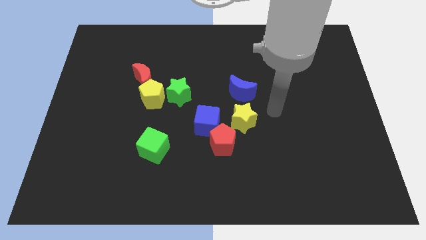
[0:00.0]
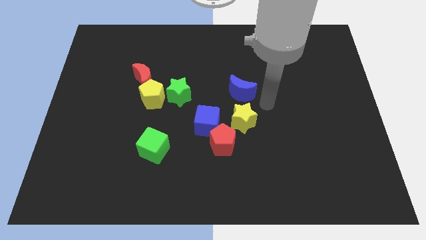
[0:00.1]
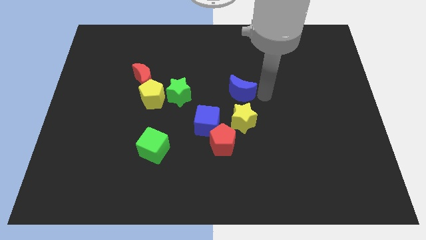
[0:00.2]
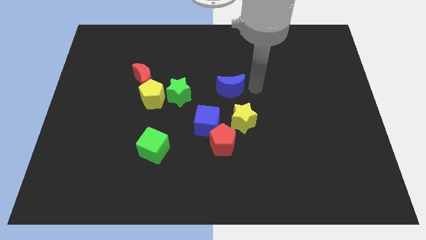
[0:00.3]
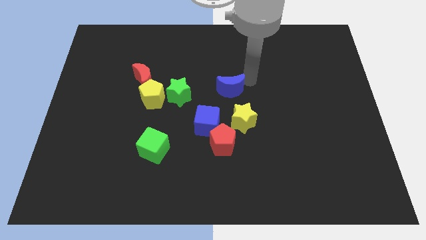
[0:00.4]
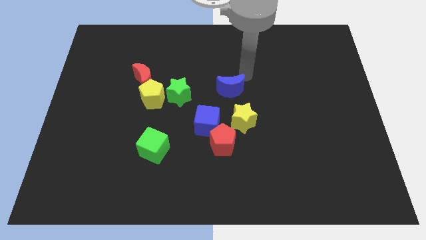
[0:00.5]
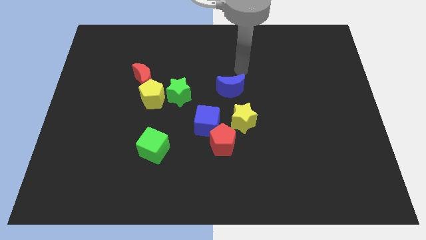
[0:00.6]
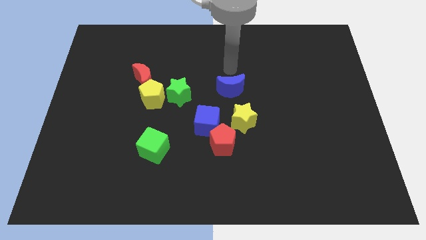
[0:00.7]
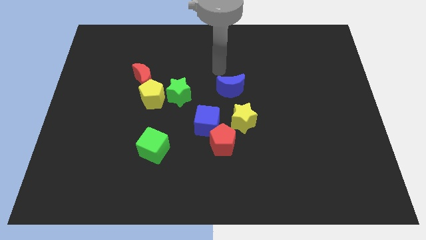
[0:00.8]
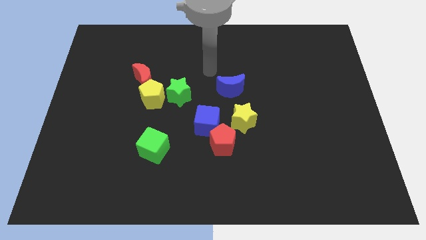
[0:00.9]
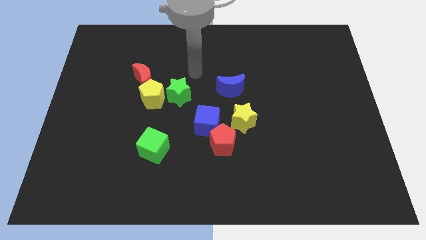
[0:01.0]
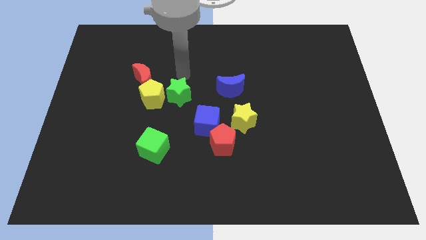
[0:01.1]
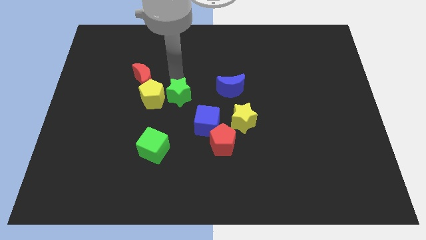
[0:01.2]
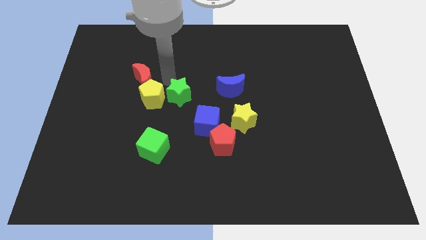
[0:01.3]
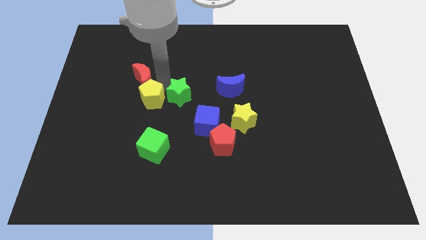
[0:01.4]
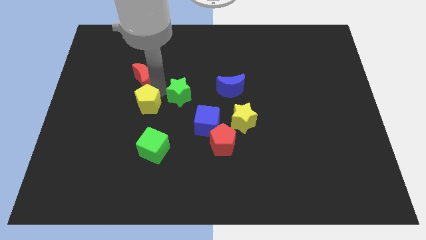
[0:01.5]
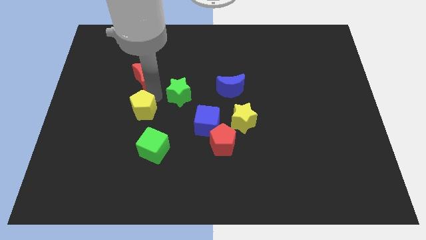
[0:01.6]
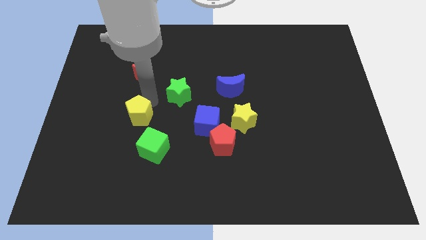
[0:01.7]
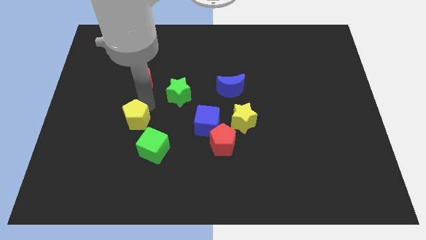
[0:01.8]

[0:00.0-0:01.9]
separate the yellow pentagon from the red moon and green star

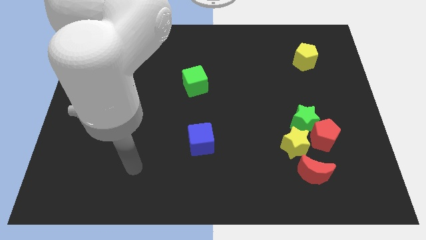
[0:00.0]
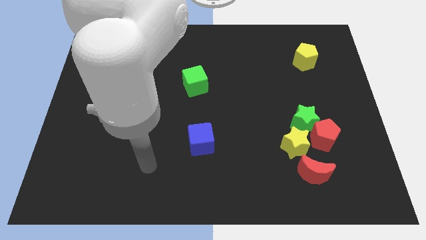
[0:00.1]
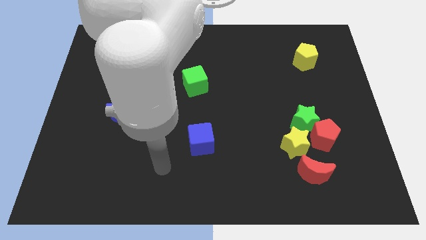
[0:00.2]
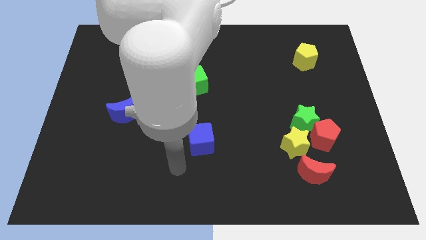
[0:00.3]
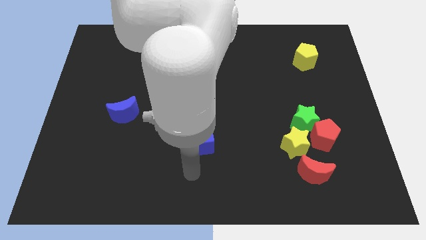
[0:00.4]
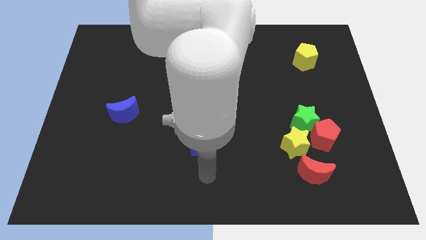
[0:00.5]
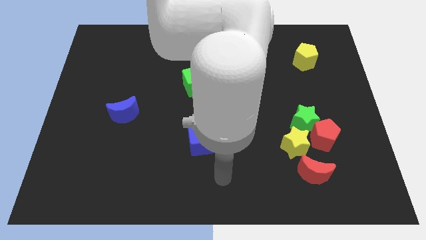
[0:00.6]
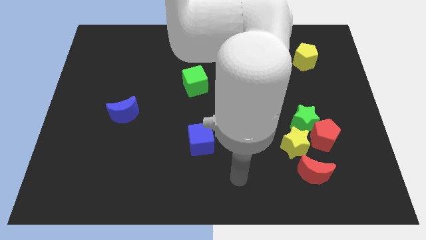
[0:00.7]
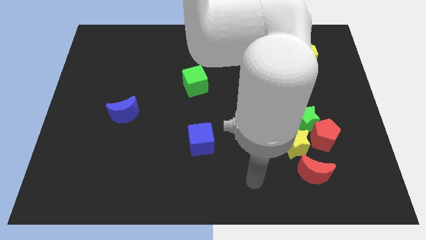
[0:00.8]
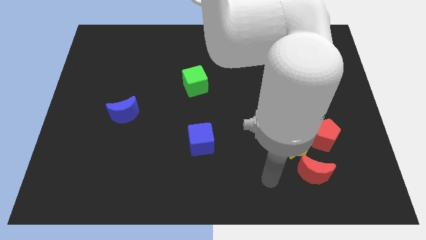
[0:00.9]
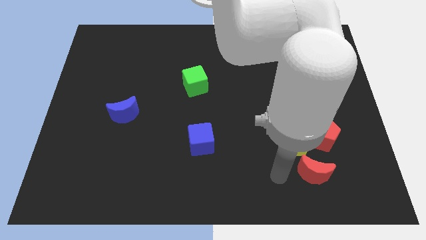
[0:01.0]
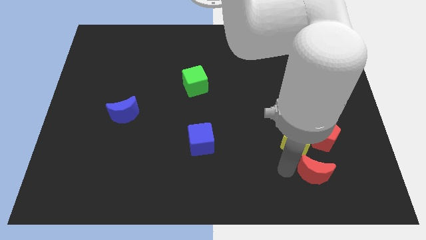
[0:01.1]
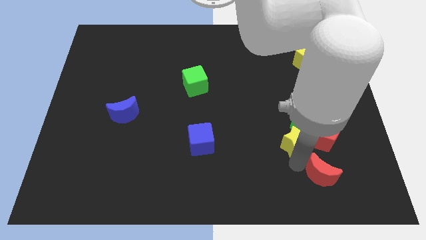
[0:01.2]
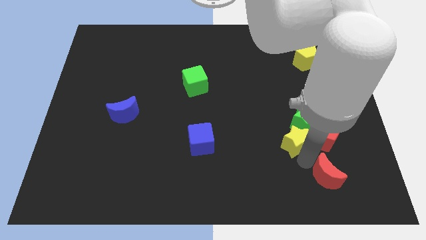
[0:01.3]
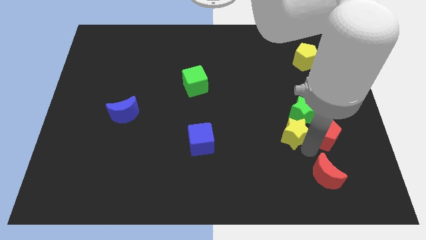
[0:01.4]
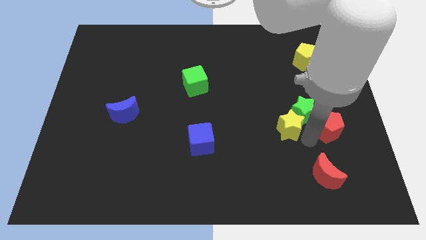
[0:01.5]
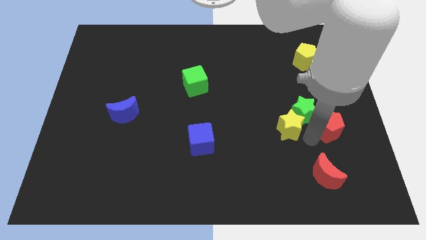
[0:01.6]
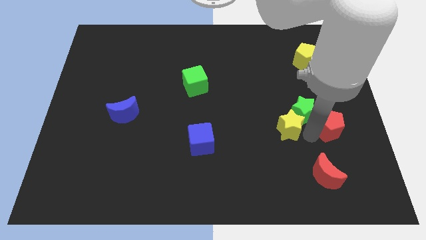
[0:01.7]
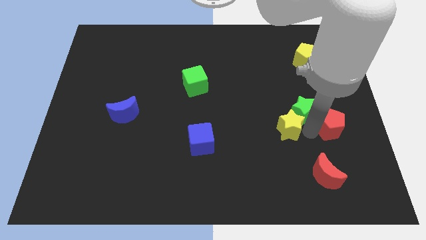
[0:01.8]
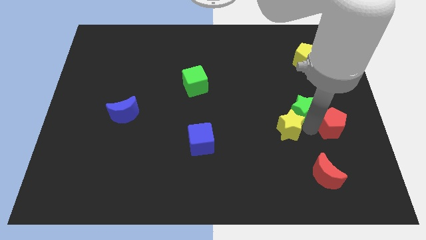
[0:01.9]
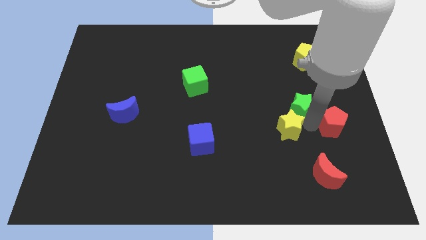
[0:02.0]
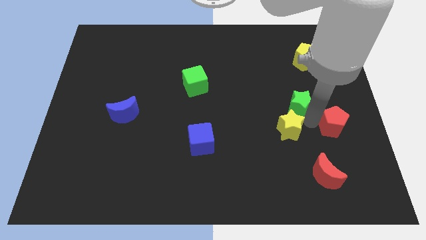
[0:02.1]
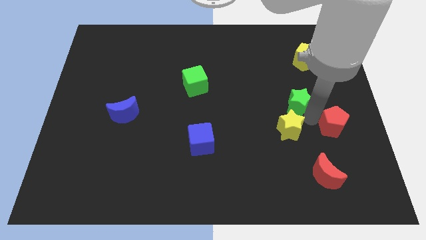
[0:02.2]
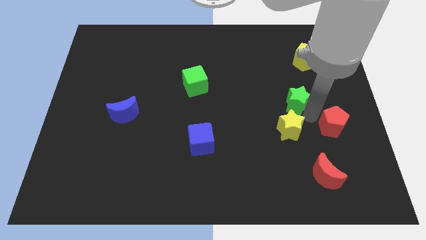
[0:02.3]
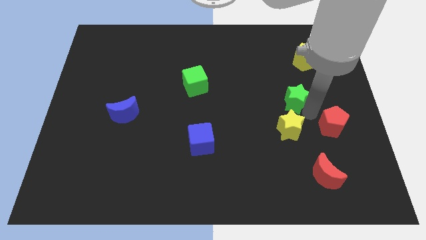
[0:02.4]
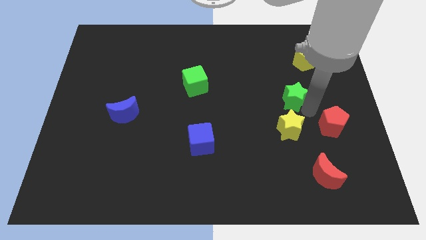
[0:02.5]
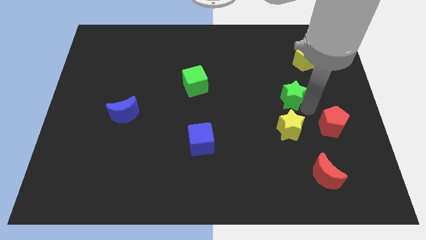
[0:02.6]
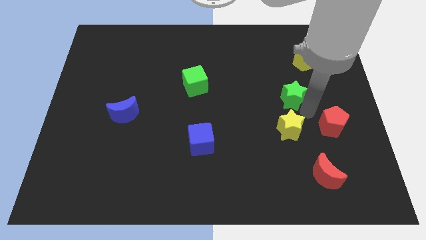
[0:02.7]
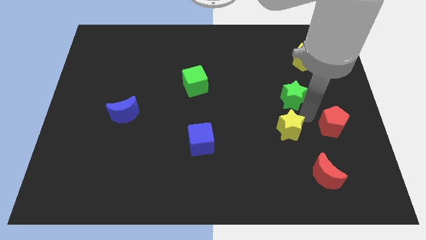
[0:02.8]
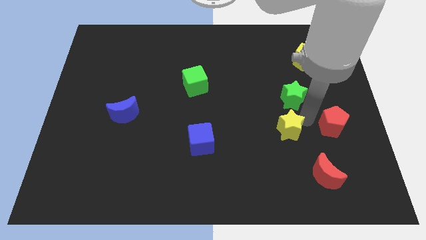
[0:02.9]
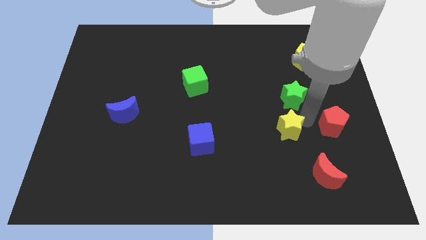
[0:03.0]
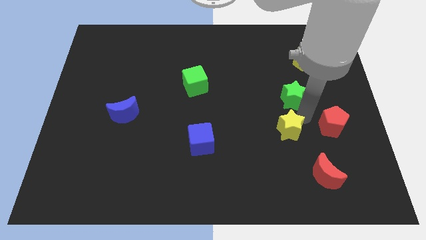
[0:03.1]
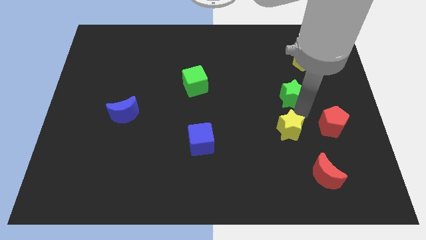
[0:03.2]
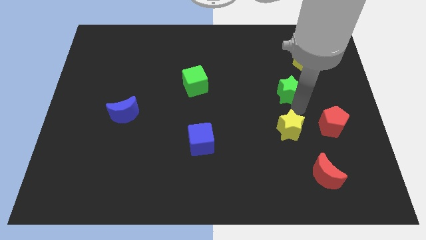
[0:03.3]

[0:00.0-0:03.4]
pull the green star apart from the red pentagon and yellow star

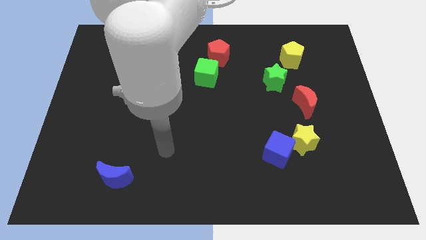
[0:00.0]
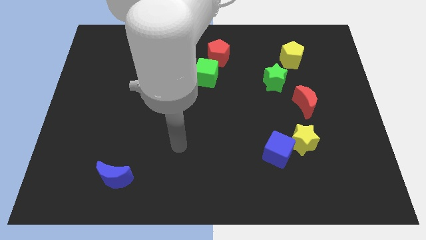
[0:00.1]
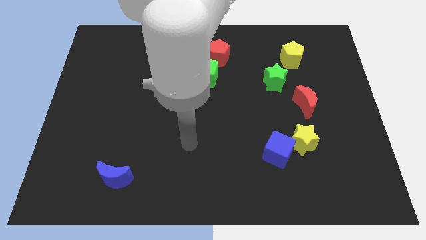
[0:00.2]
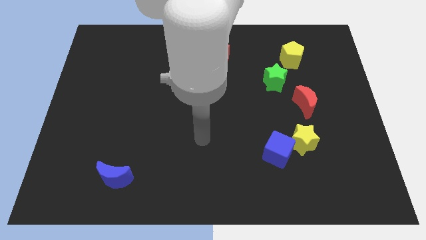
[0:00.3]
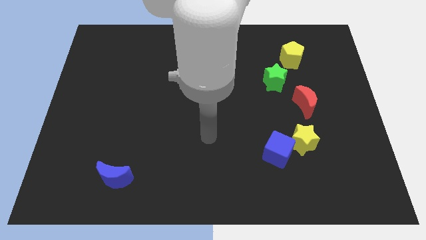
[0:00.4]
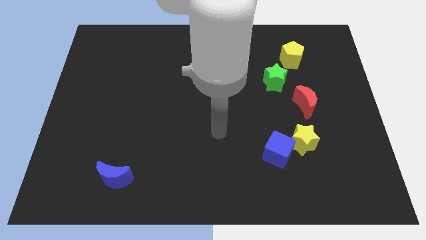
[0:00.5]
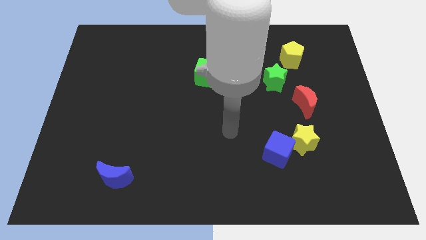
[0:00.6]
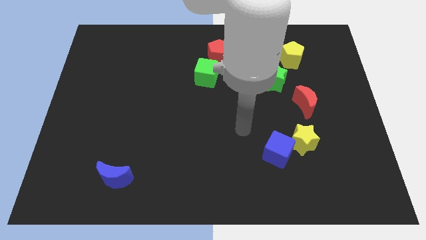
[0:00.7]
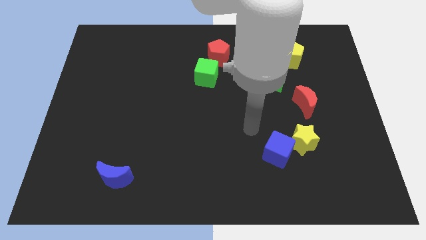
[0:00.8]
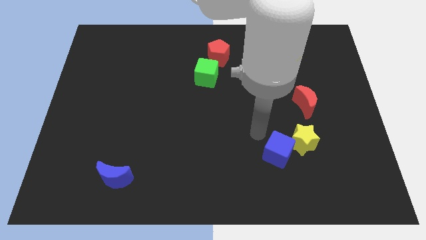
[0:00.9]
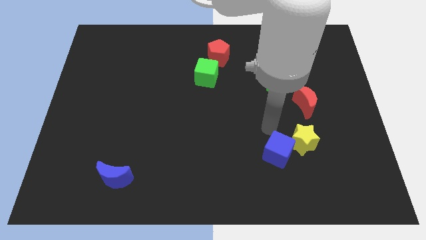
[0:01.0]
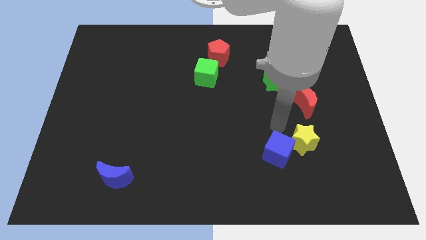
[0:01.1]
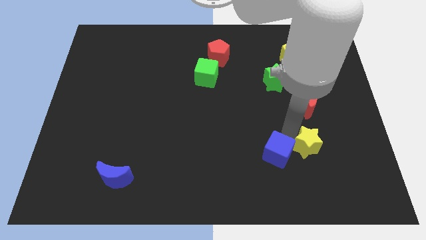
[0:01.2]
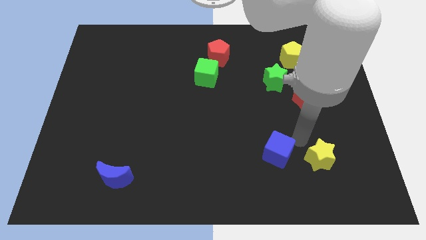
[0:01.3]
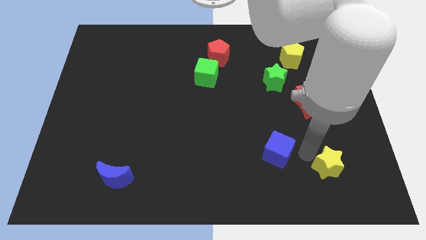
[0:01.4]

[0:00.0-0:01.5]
separate the blue cube from the yellow star

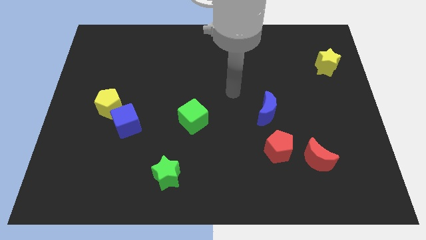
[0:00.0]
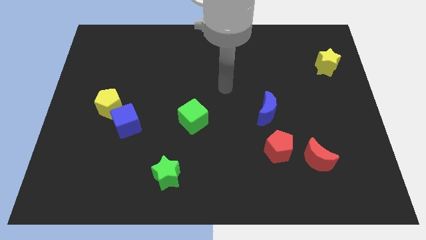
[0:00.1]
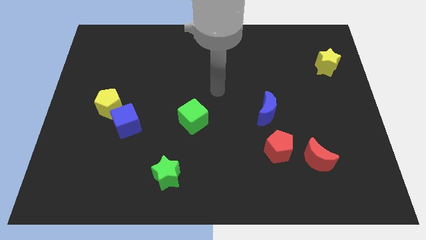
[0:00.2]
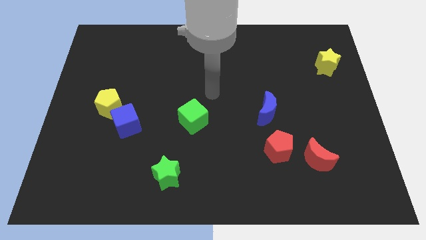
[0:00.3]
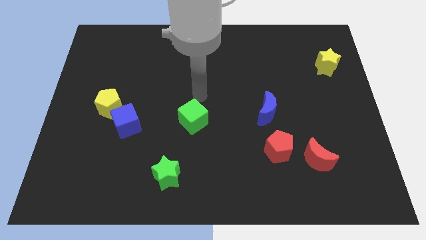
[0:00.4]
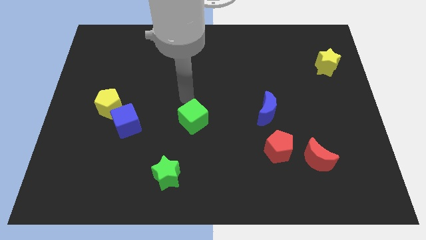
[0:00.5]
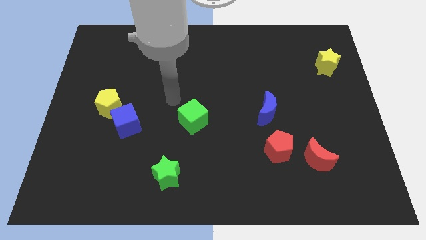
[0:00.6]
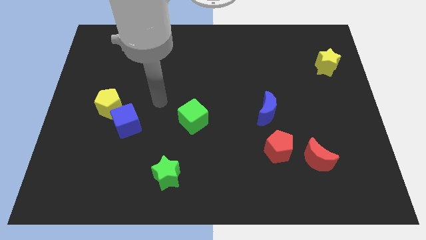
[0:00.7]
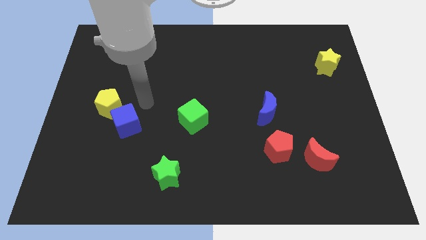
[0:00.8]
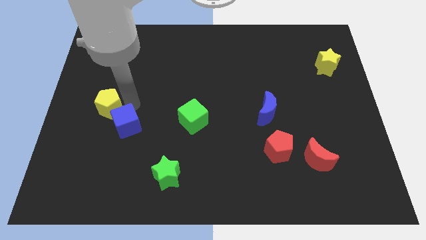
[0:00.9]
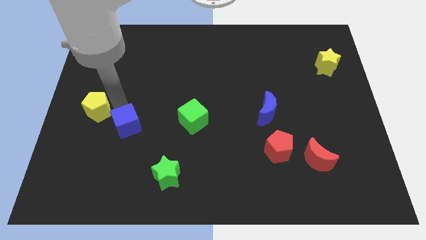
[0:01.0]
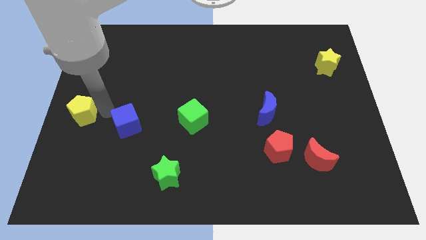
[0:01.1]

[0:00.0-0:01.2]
pull the blue cube apart from the yellow pentagon

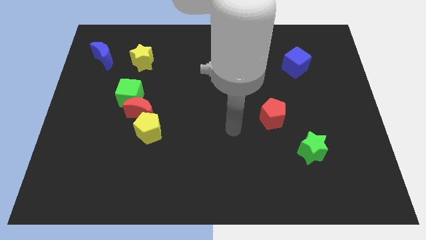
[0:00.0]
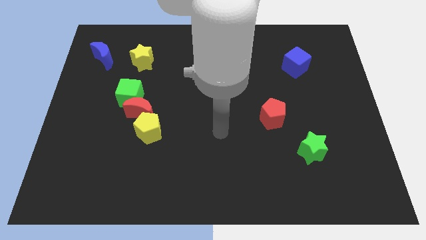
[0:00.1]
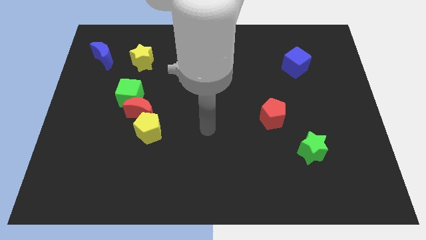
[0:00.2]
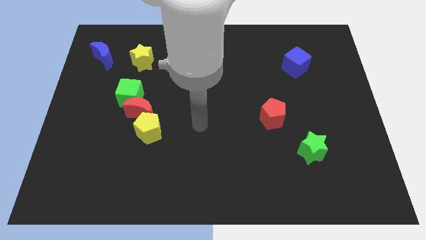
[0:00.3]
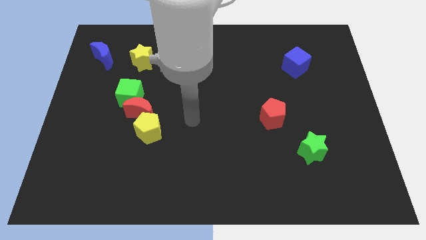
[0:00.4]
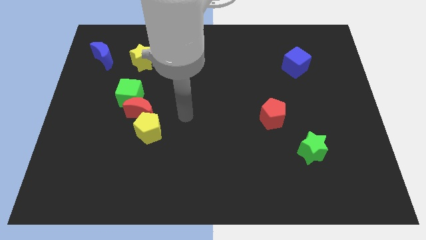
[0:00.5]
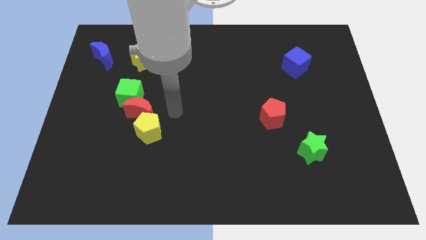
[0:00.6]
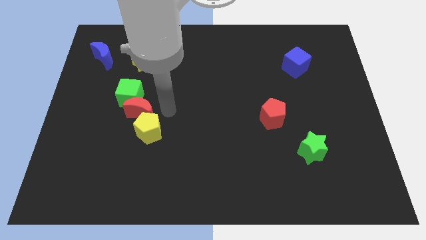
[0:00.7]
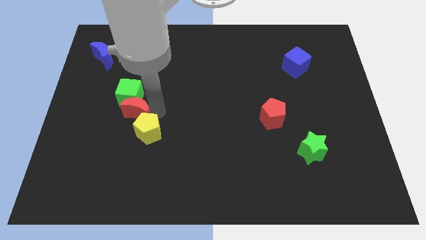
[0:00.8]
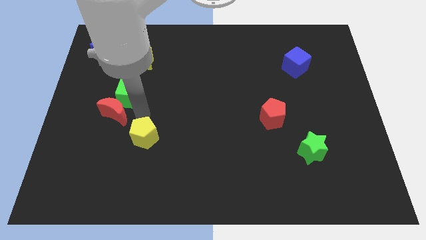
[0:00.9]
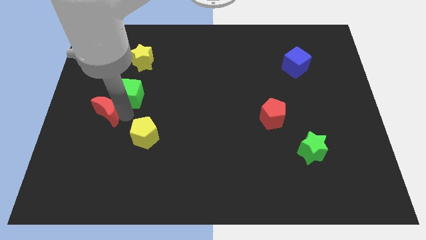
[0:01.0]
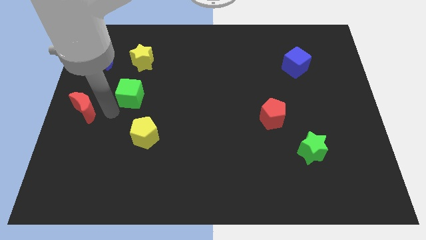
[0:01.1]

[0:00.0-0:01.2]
move the green cube away from the red moon

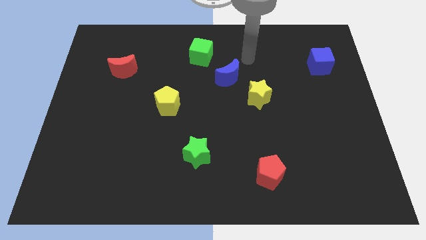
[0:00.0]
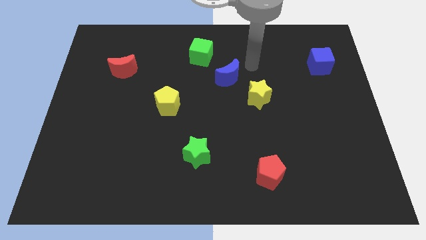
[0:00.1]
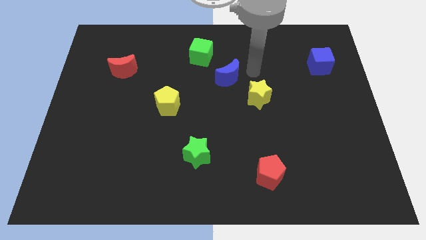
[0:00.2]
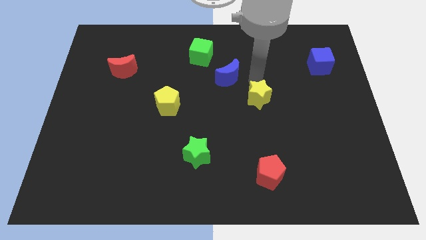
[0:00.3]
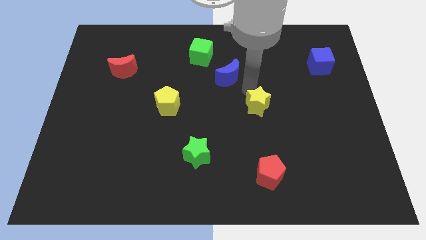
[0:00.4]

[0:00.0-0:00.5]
pull the blue moon apart from the yellow star
